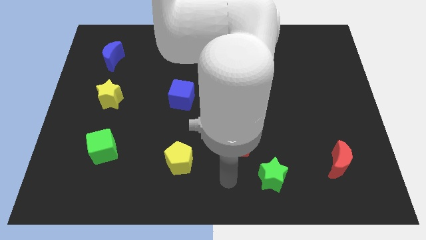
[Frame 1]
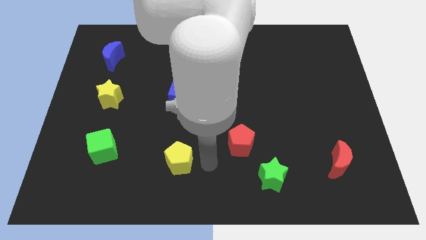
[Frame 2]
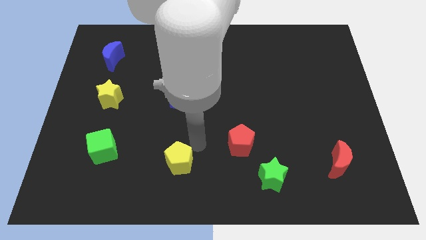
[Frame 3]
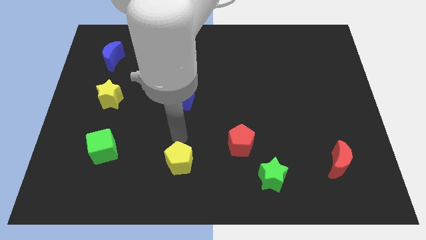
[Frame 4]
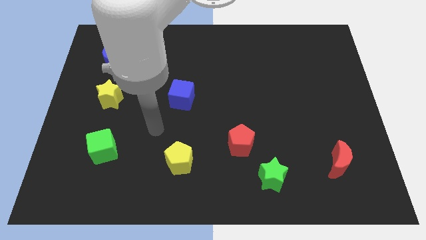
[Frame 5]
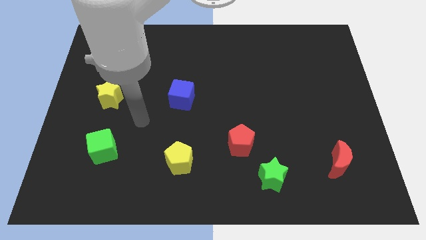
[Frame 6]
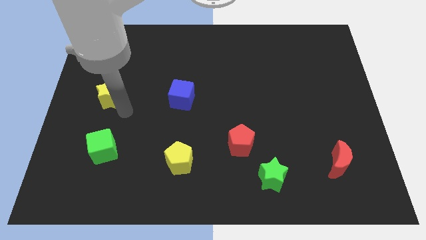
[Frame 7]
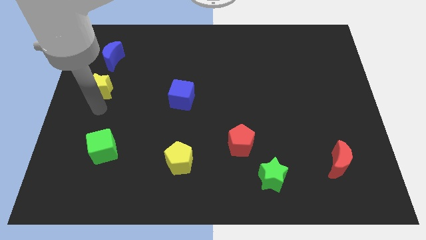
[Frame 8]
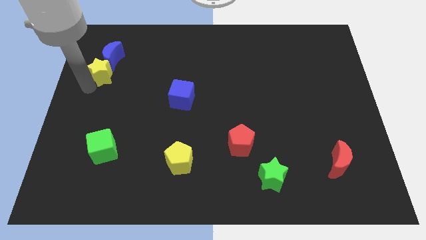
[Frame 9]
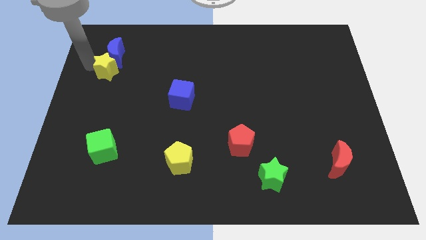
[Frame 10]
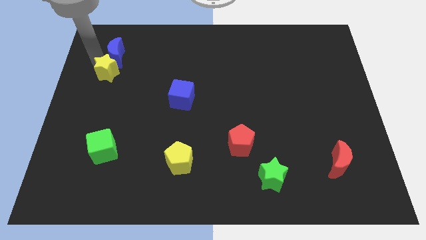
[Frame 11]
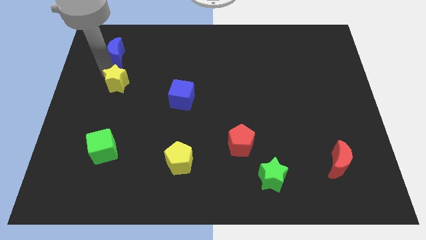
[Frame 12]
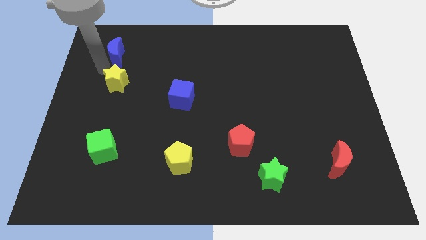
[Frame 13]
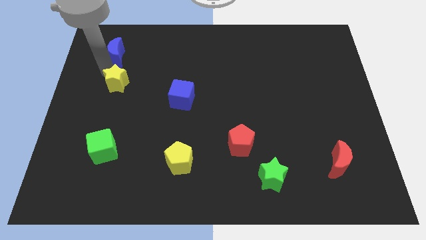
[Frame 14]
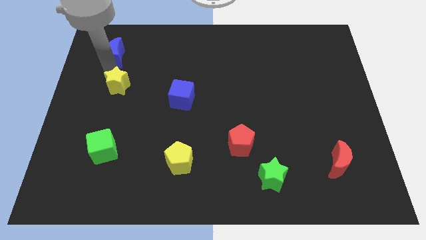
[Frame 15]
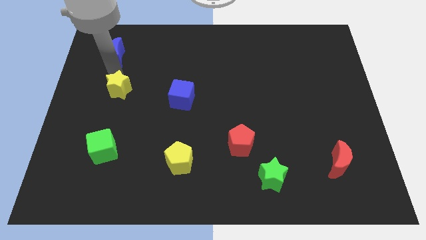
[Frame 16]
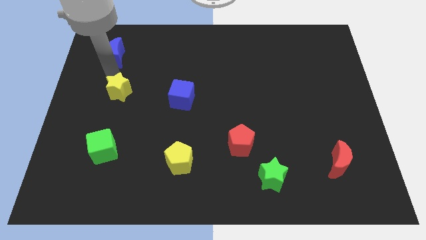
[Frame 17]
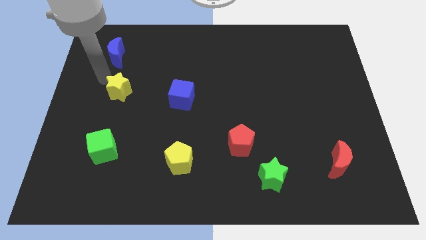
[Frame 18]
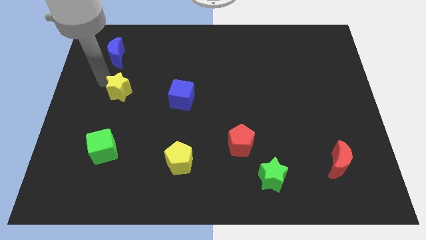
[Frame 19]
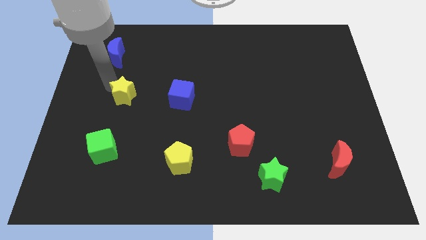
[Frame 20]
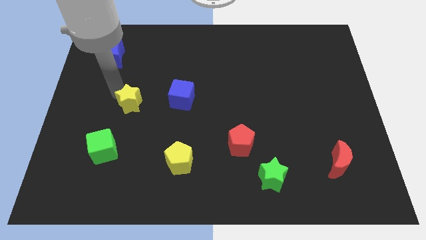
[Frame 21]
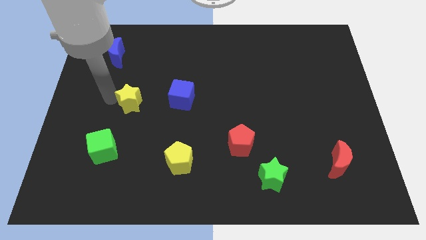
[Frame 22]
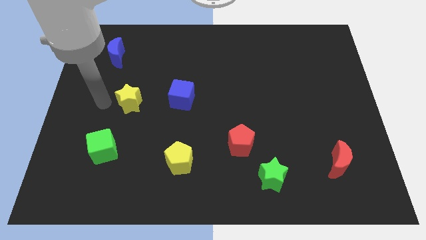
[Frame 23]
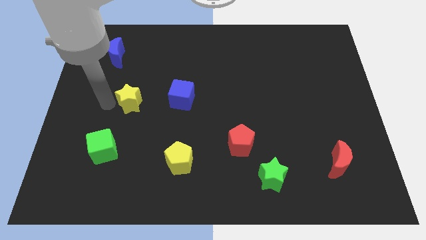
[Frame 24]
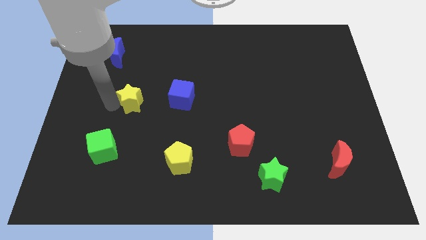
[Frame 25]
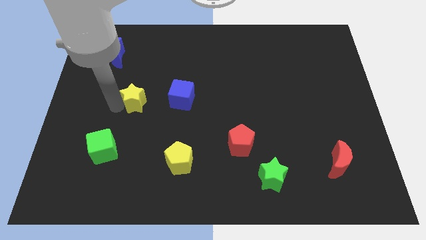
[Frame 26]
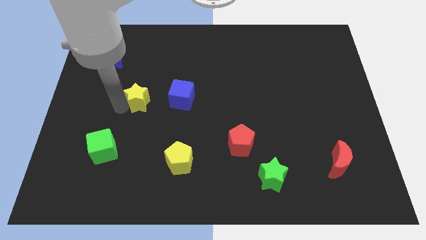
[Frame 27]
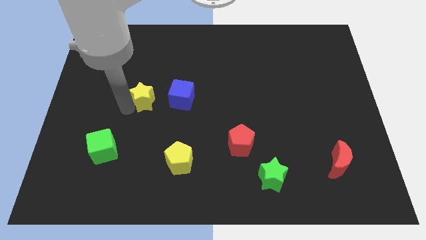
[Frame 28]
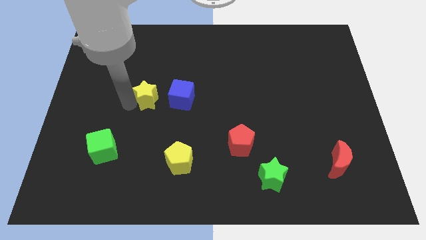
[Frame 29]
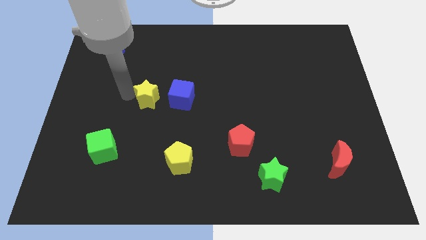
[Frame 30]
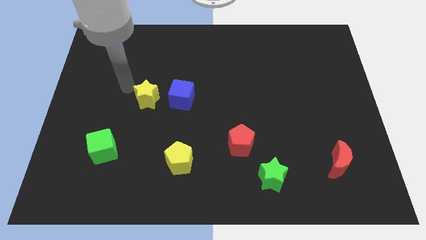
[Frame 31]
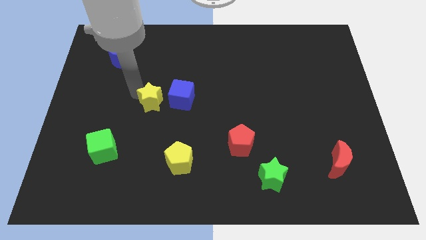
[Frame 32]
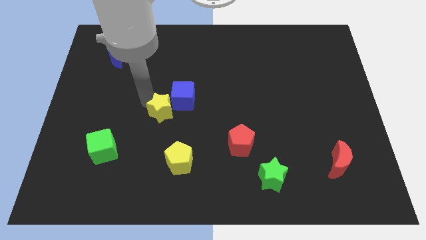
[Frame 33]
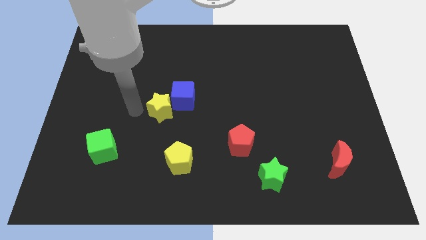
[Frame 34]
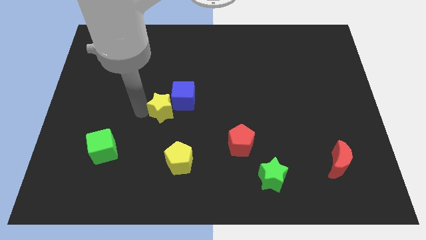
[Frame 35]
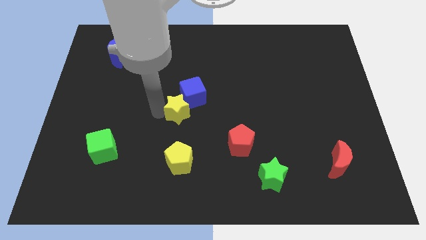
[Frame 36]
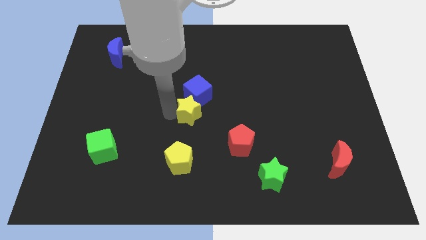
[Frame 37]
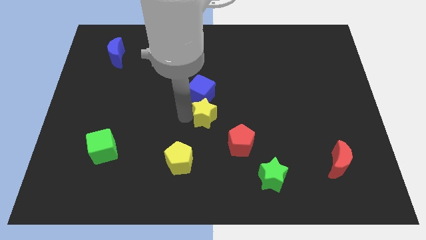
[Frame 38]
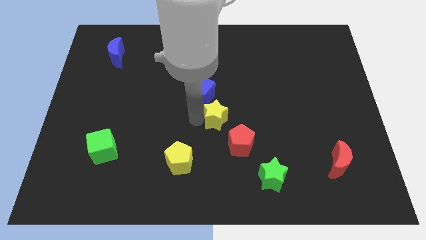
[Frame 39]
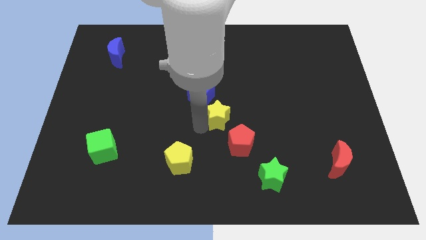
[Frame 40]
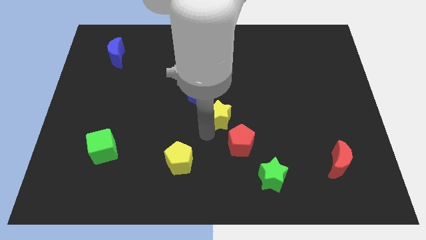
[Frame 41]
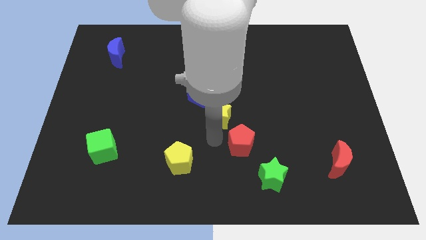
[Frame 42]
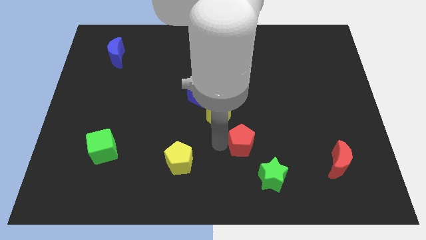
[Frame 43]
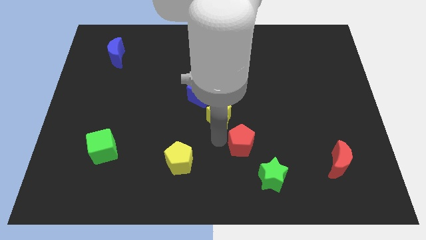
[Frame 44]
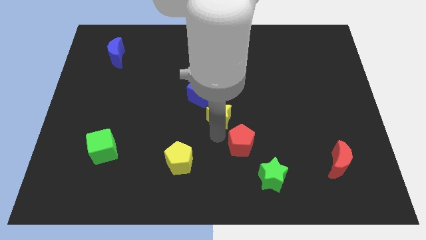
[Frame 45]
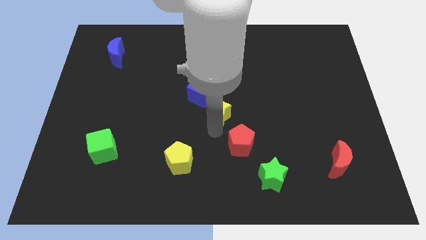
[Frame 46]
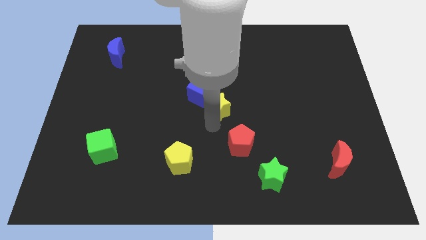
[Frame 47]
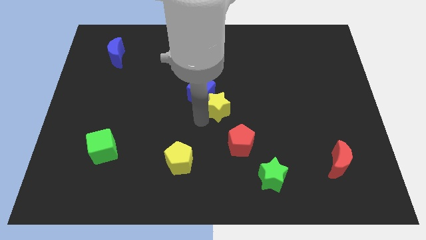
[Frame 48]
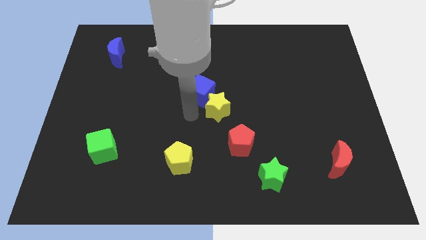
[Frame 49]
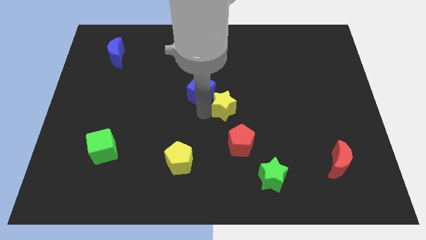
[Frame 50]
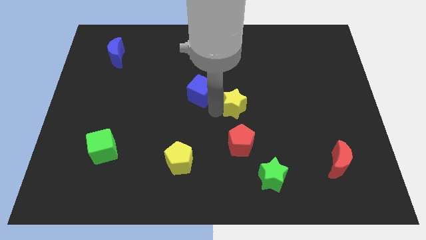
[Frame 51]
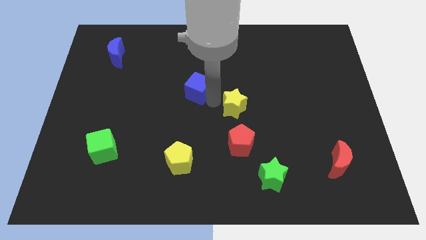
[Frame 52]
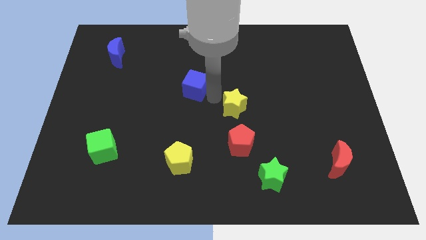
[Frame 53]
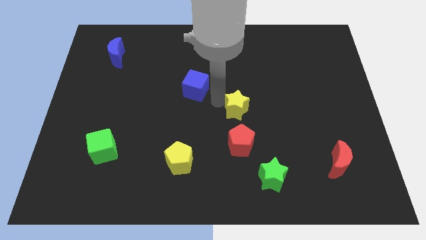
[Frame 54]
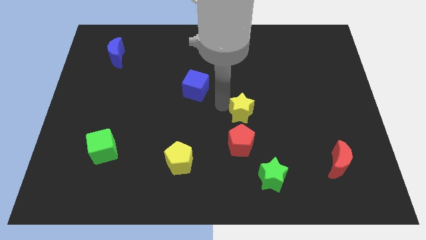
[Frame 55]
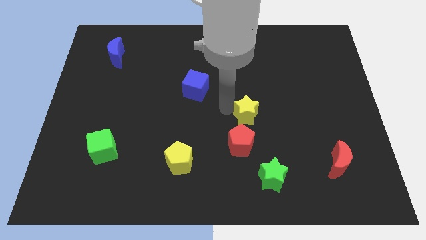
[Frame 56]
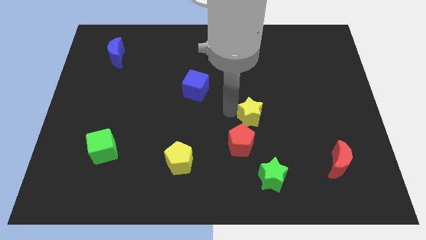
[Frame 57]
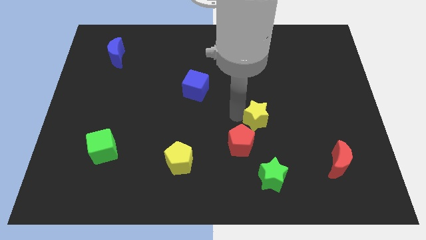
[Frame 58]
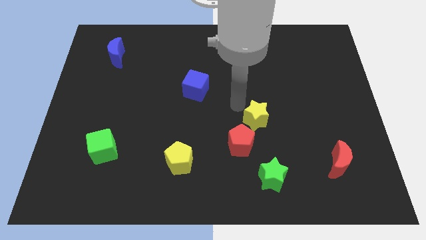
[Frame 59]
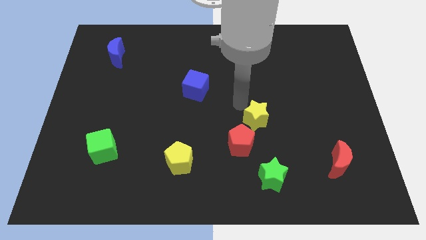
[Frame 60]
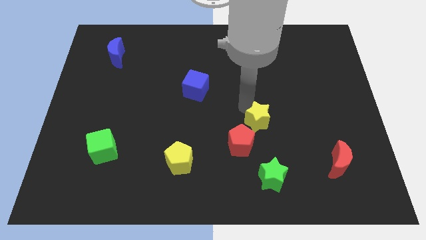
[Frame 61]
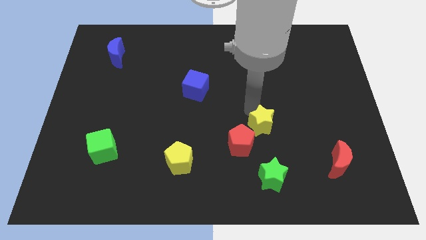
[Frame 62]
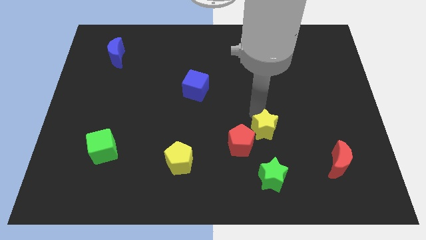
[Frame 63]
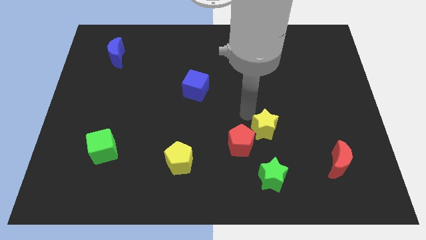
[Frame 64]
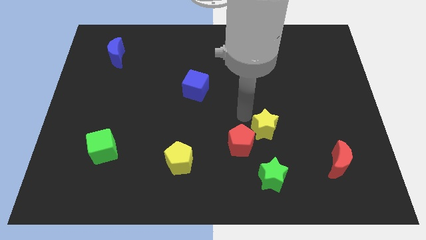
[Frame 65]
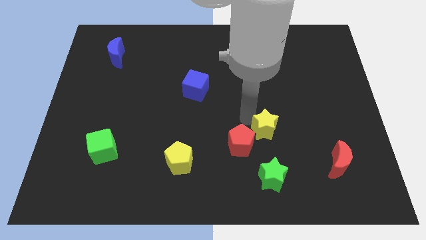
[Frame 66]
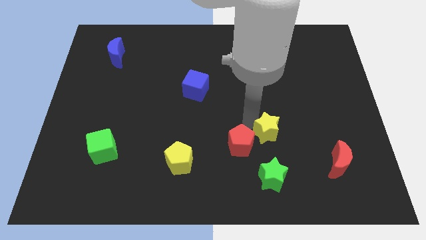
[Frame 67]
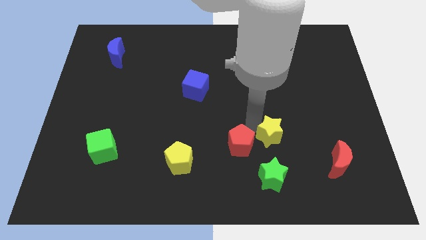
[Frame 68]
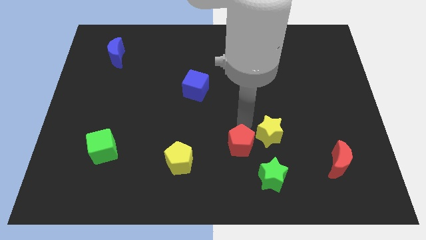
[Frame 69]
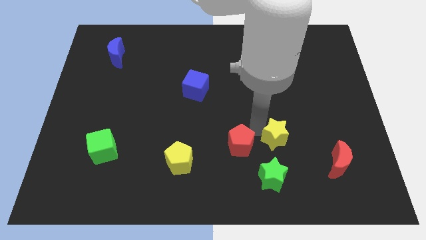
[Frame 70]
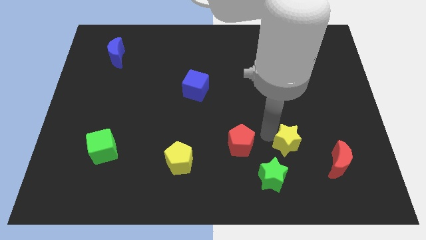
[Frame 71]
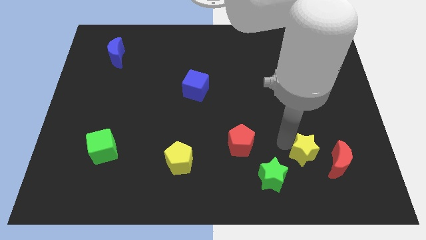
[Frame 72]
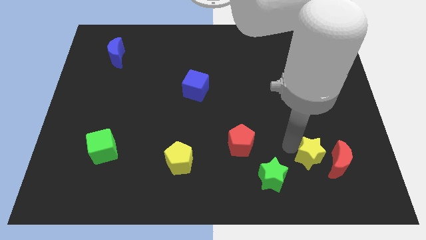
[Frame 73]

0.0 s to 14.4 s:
slide the yellow star to the red moon
